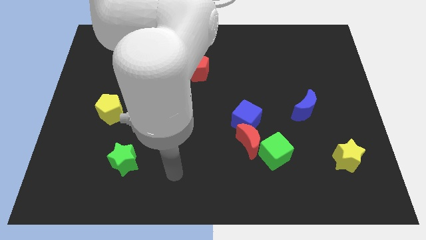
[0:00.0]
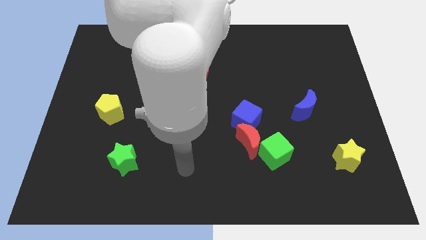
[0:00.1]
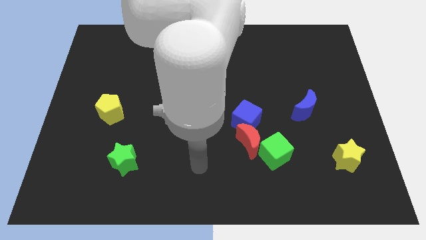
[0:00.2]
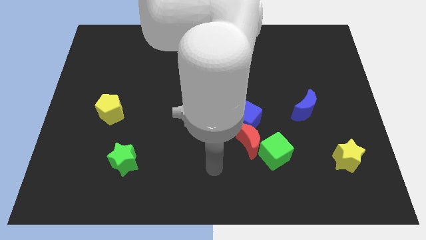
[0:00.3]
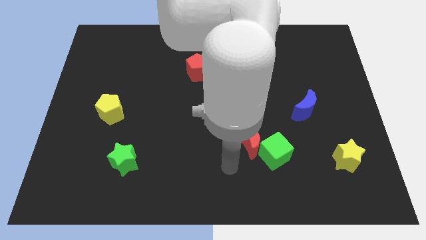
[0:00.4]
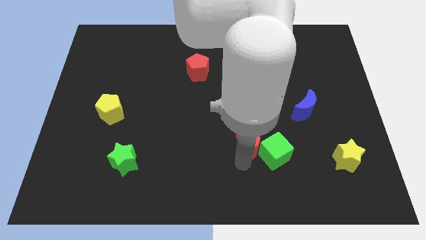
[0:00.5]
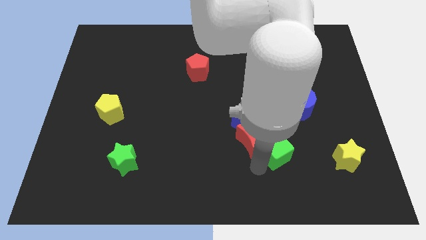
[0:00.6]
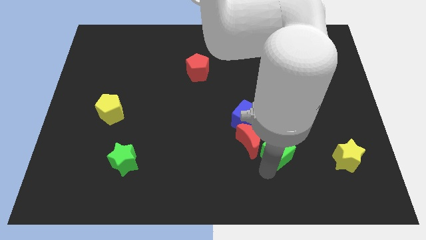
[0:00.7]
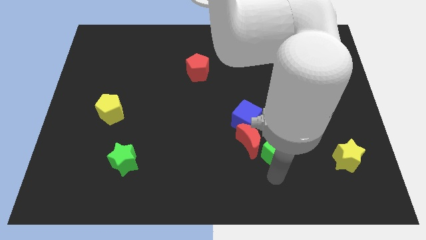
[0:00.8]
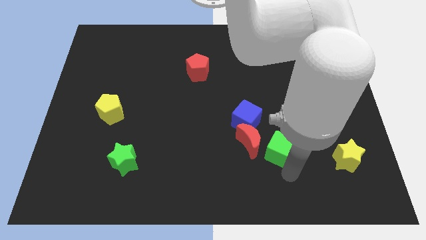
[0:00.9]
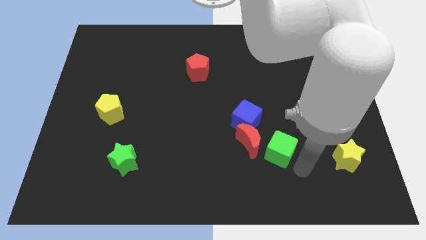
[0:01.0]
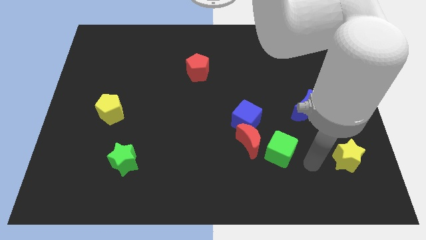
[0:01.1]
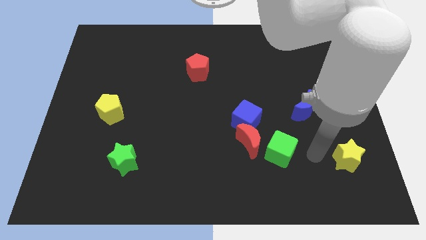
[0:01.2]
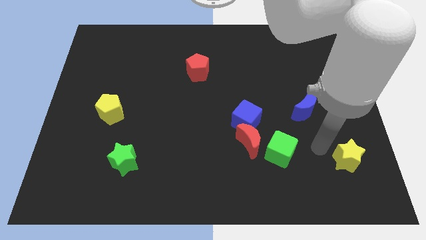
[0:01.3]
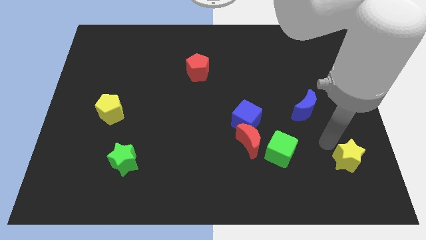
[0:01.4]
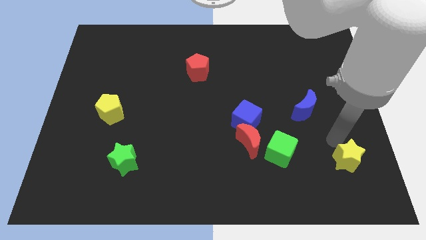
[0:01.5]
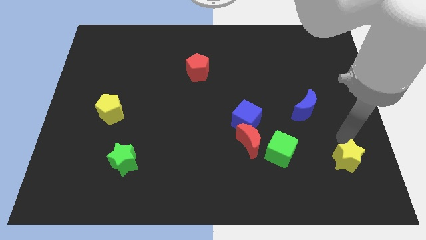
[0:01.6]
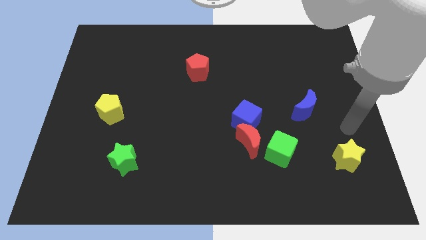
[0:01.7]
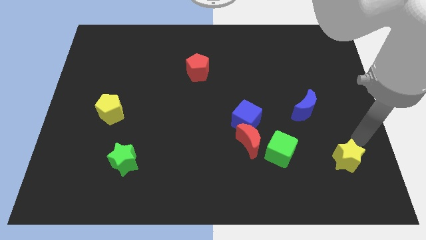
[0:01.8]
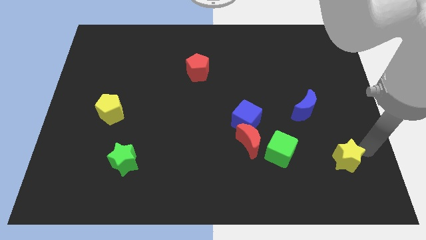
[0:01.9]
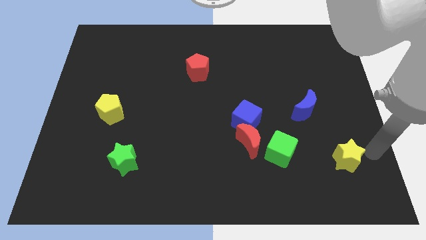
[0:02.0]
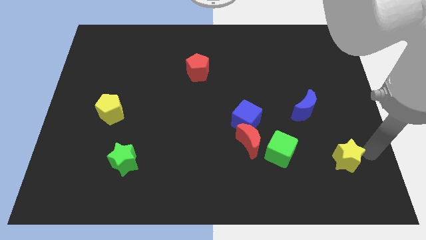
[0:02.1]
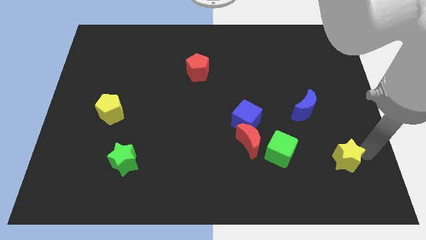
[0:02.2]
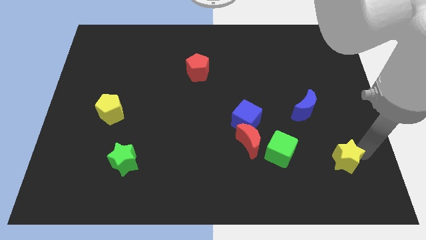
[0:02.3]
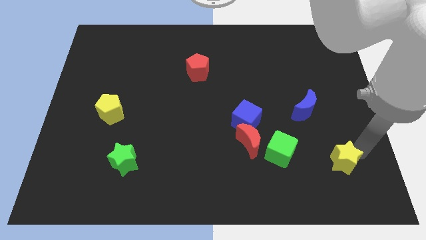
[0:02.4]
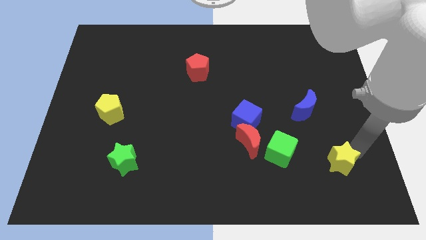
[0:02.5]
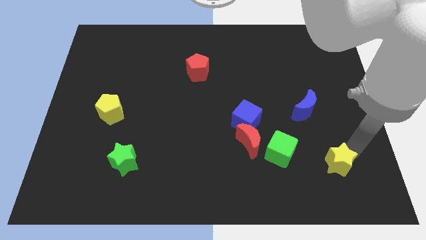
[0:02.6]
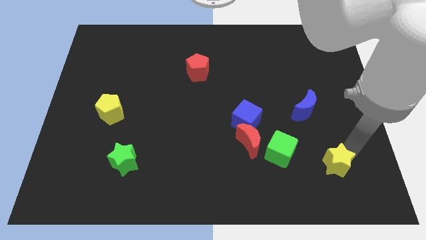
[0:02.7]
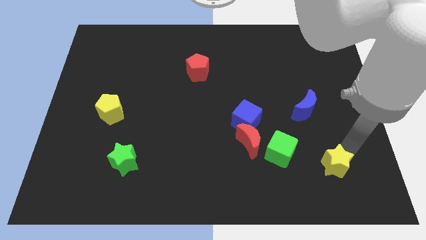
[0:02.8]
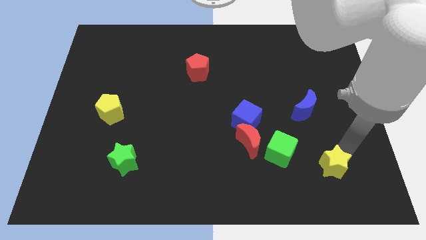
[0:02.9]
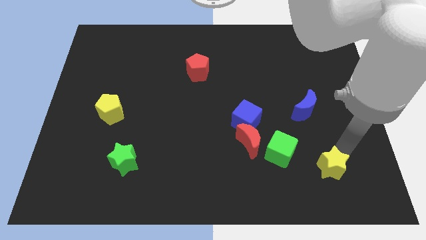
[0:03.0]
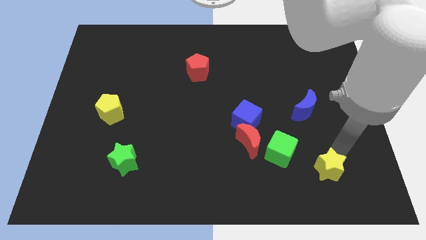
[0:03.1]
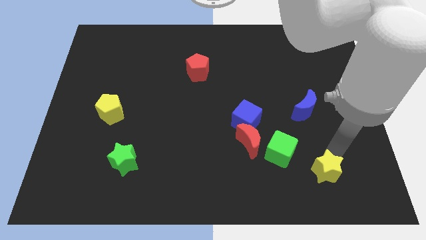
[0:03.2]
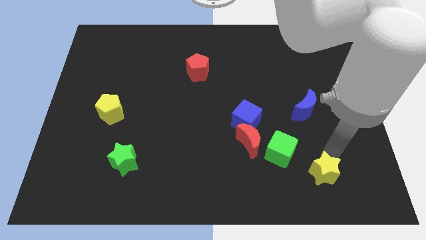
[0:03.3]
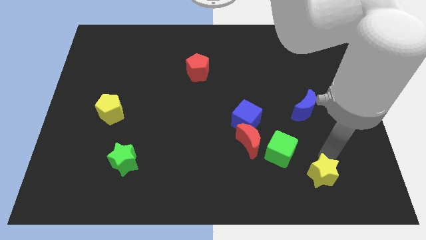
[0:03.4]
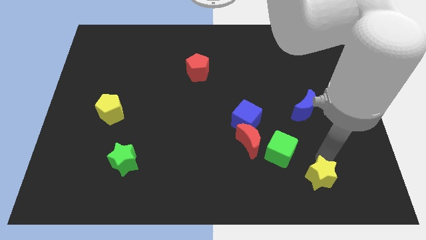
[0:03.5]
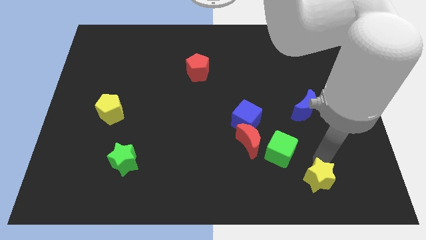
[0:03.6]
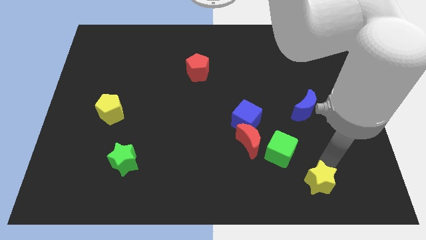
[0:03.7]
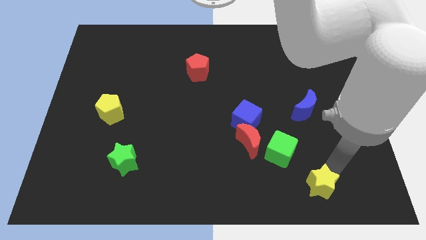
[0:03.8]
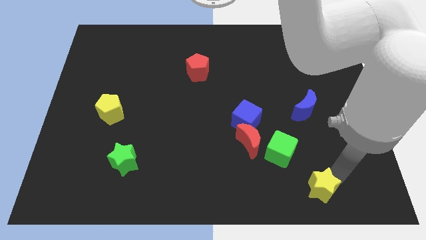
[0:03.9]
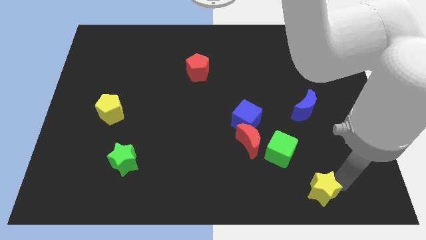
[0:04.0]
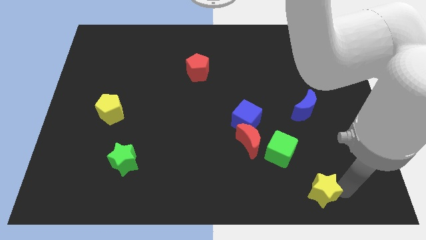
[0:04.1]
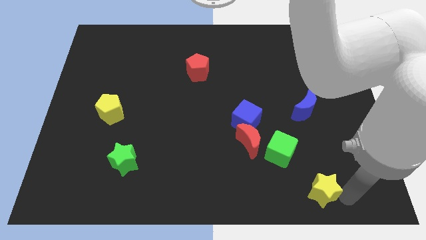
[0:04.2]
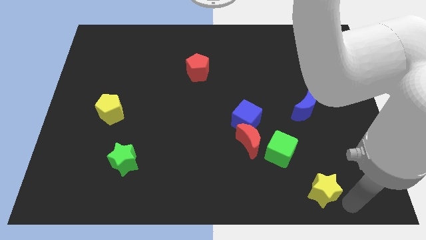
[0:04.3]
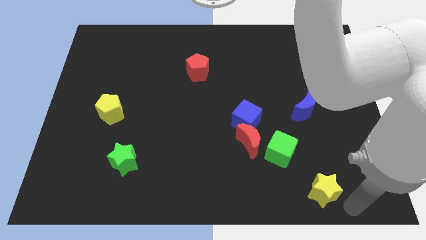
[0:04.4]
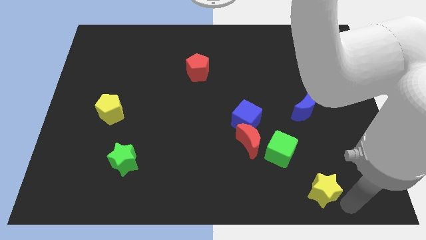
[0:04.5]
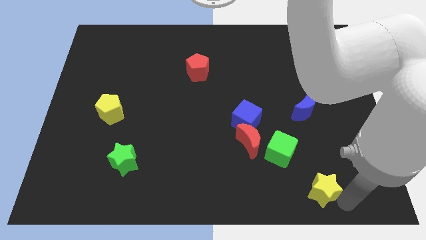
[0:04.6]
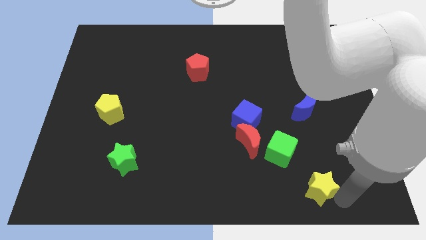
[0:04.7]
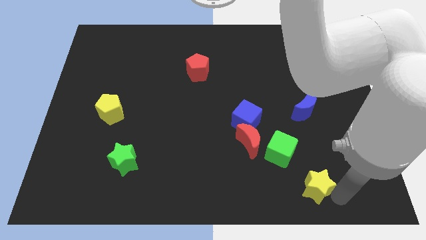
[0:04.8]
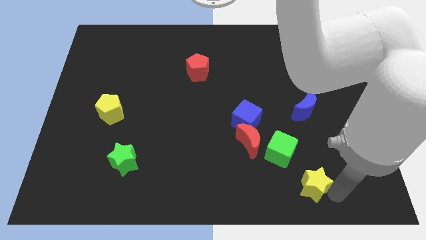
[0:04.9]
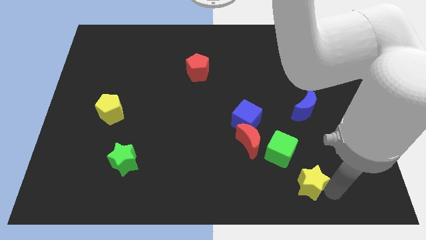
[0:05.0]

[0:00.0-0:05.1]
push the yellow star left a little

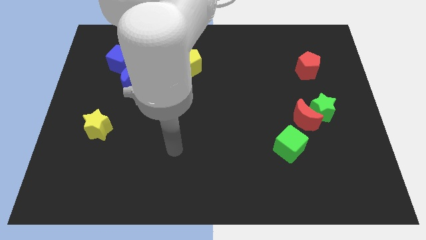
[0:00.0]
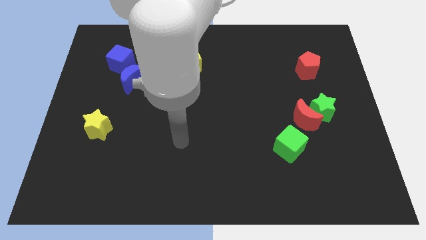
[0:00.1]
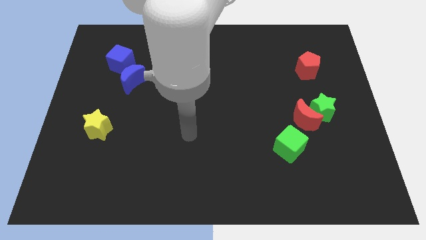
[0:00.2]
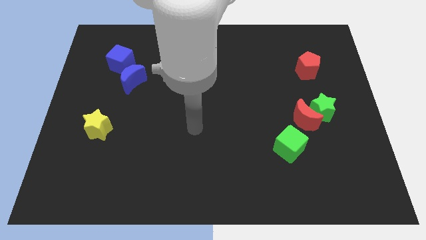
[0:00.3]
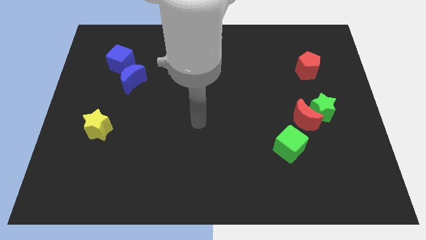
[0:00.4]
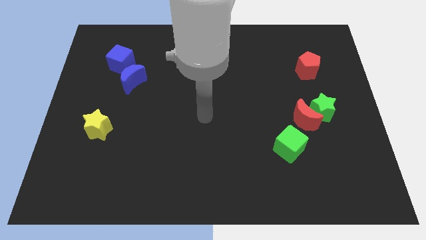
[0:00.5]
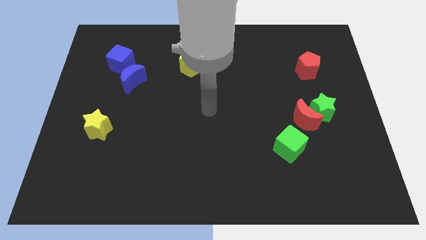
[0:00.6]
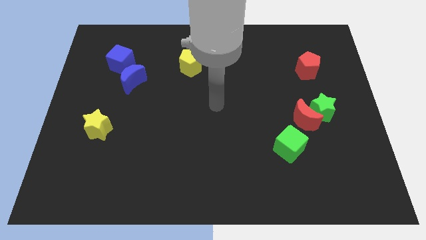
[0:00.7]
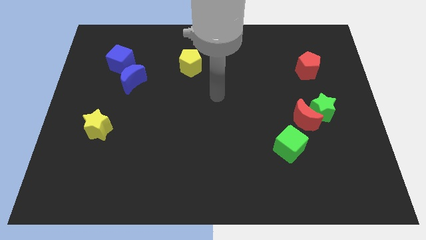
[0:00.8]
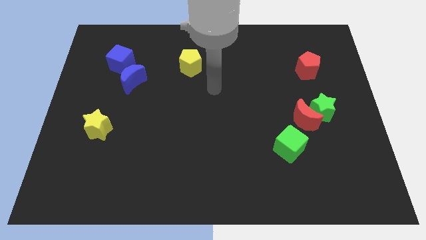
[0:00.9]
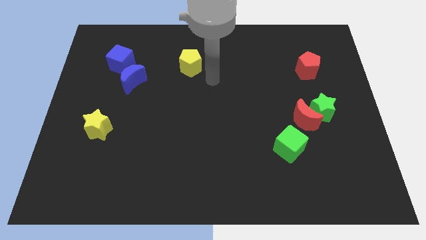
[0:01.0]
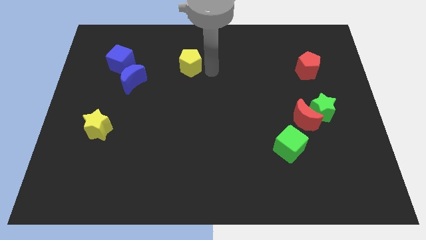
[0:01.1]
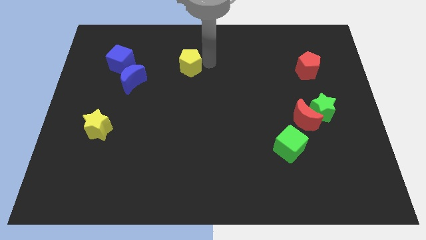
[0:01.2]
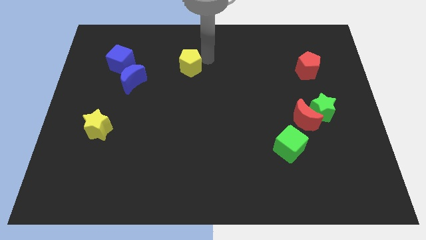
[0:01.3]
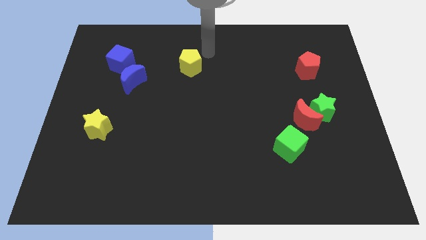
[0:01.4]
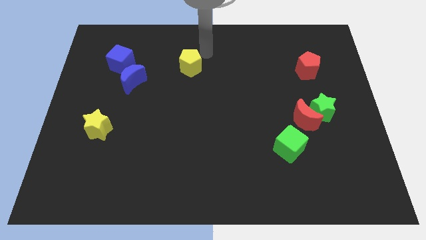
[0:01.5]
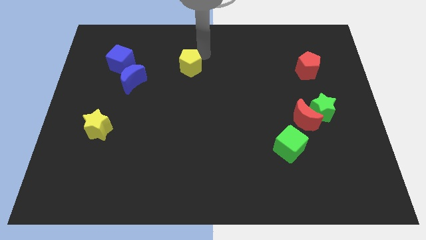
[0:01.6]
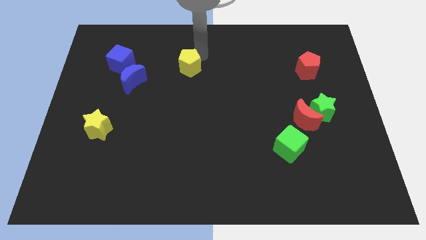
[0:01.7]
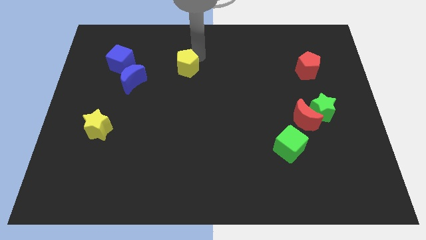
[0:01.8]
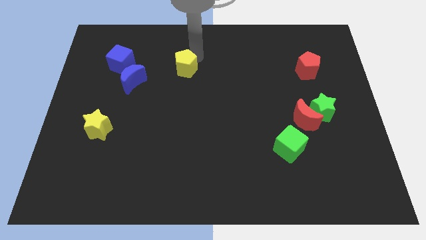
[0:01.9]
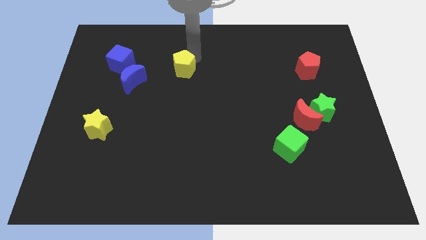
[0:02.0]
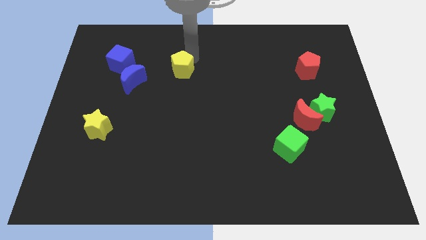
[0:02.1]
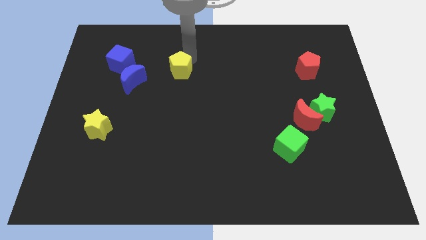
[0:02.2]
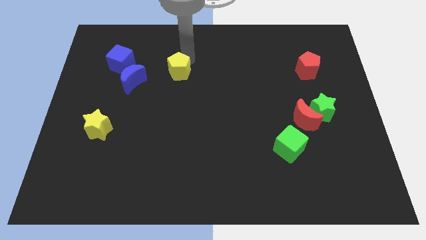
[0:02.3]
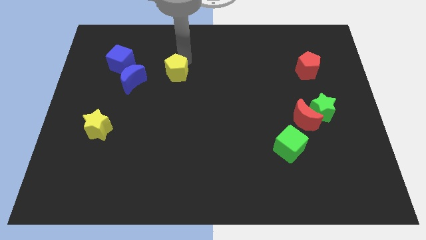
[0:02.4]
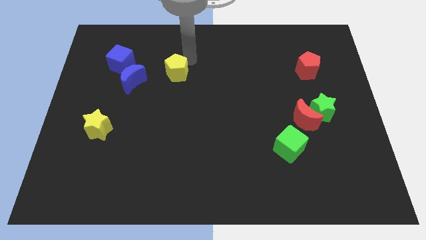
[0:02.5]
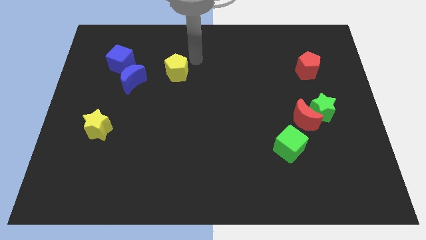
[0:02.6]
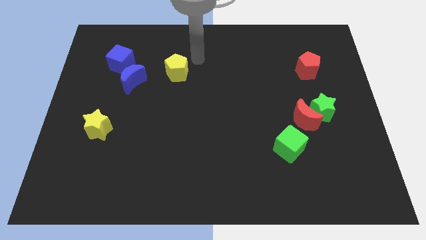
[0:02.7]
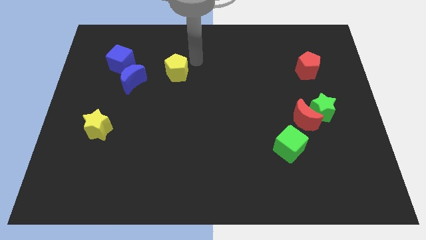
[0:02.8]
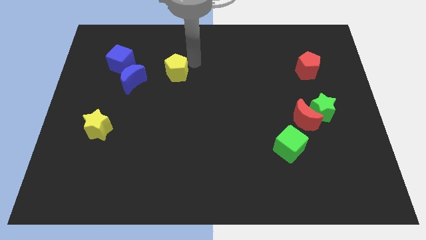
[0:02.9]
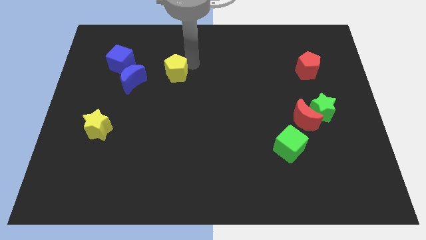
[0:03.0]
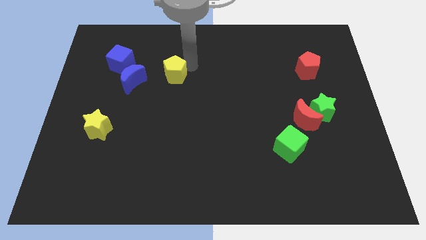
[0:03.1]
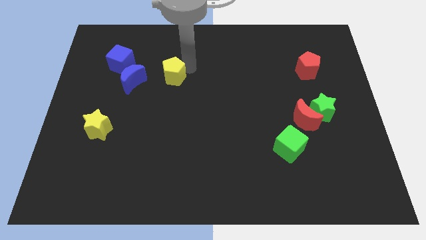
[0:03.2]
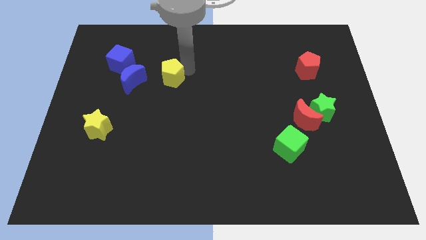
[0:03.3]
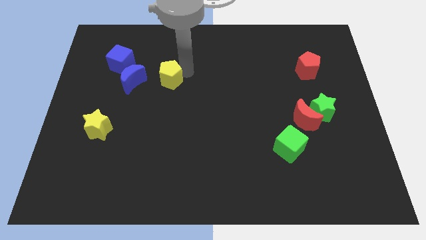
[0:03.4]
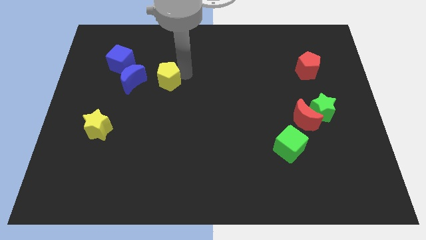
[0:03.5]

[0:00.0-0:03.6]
slide the yellow pentagon down and left slightly
